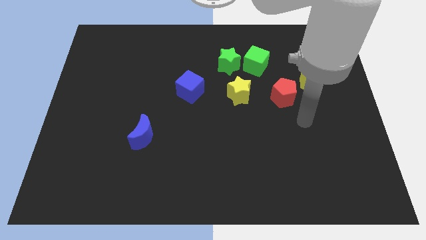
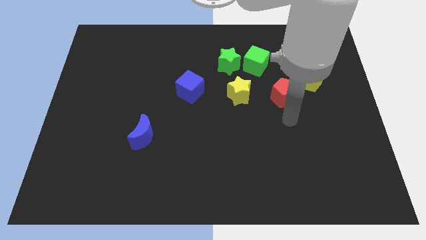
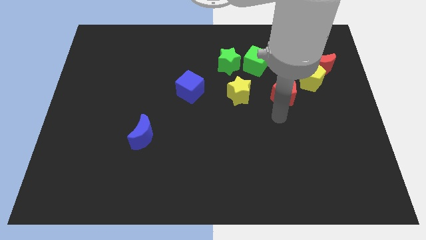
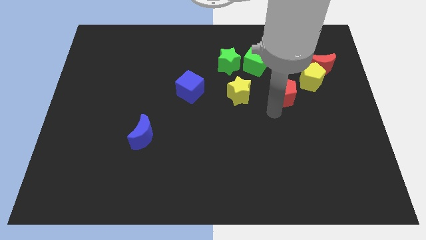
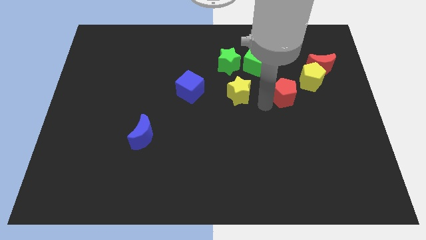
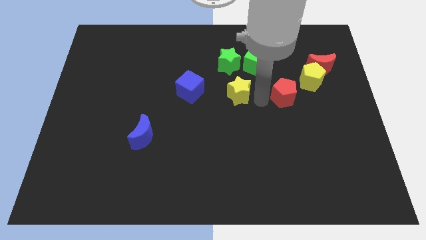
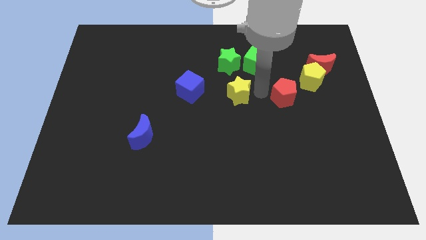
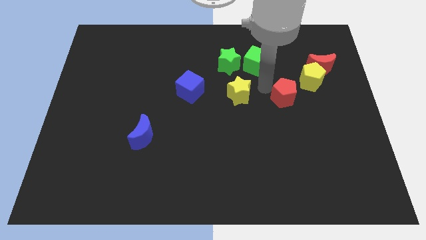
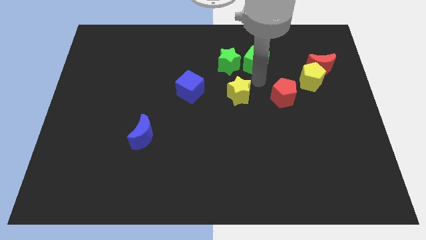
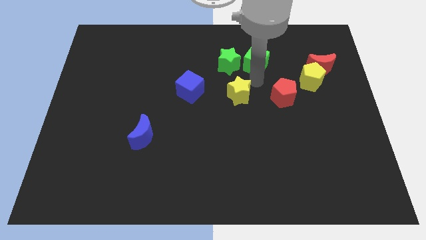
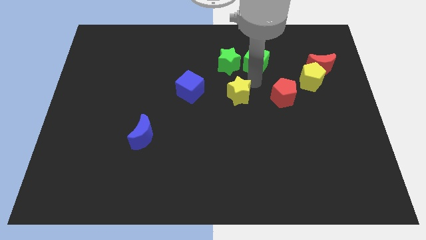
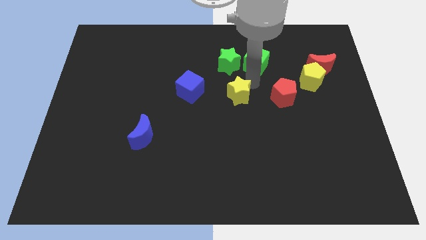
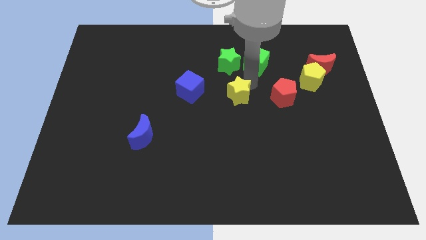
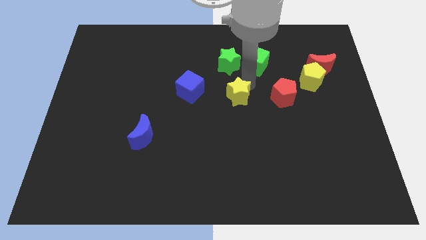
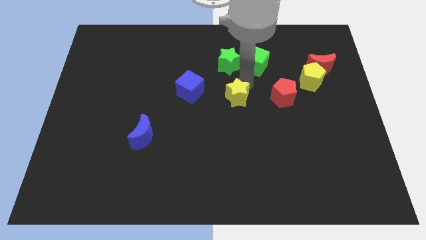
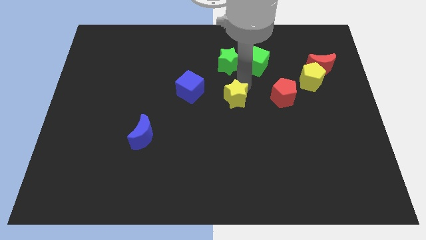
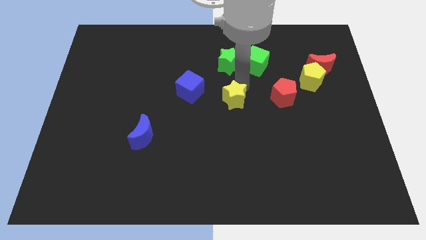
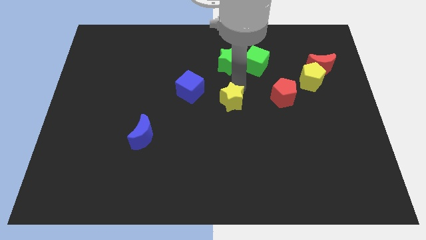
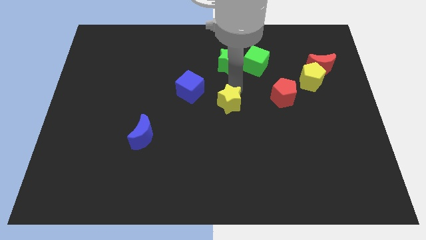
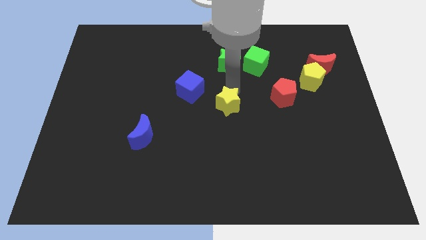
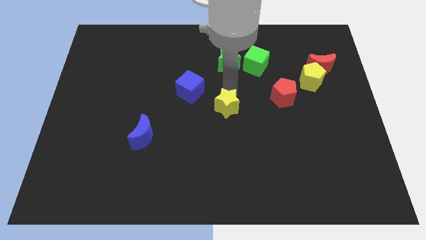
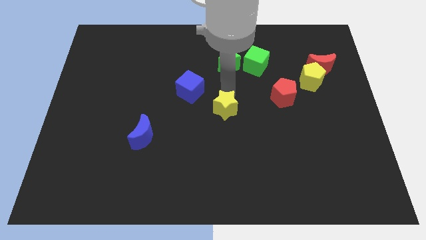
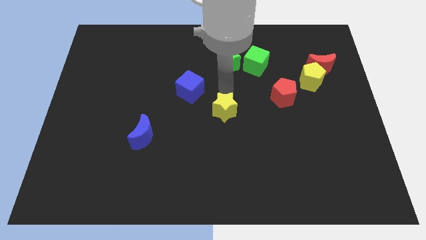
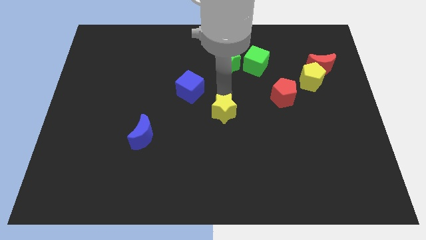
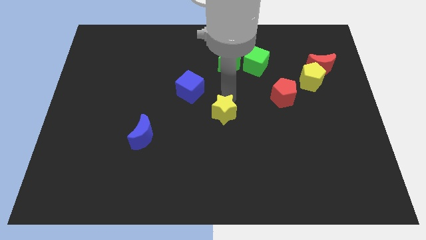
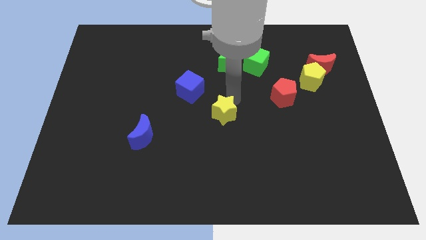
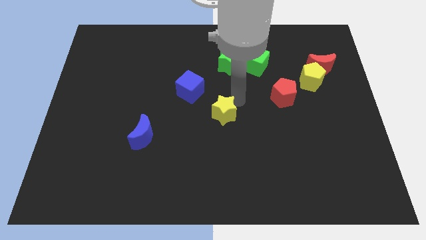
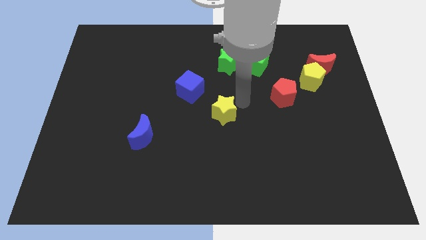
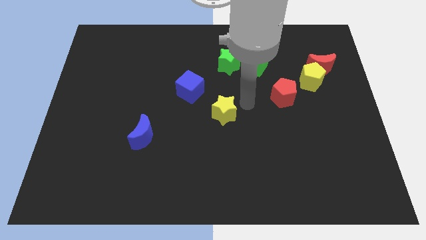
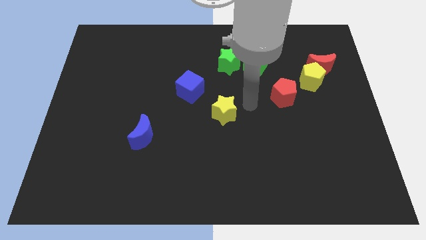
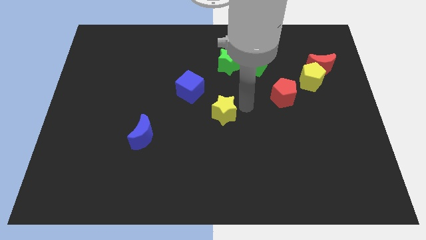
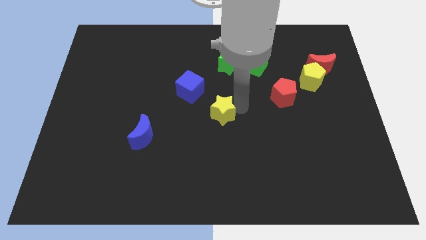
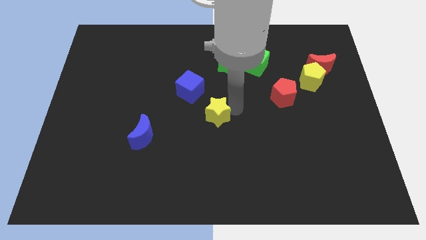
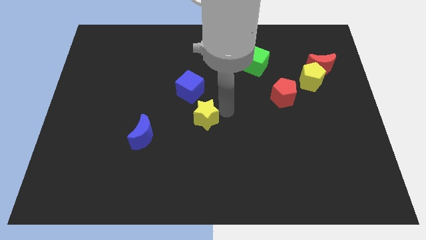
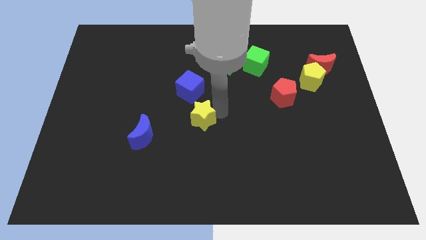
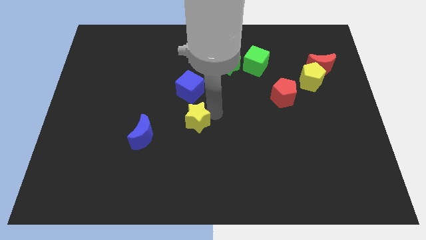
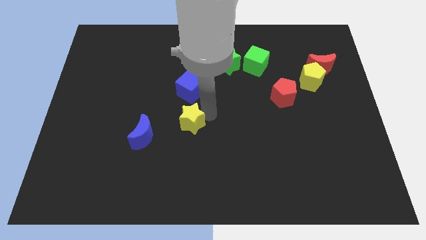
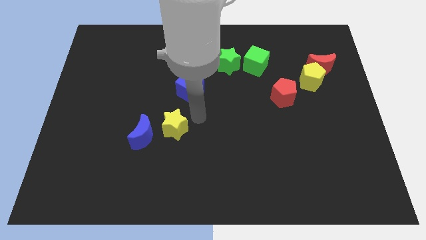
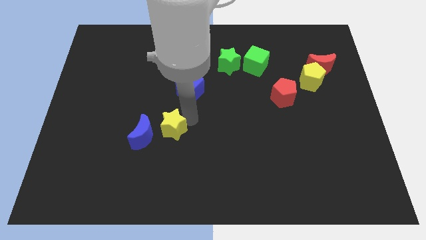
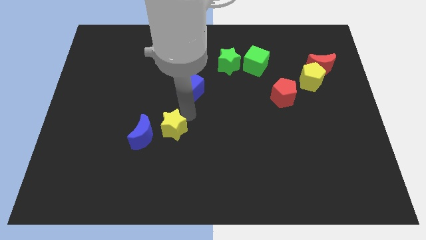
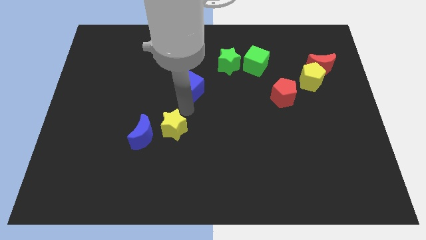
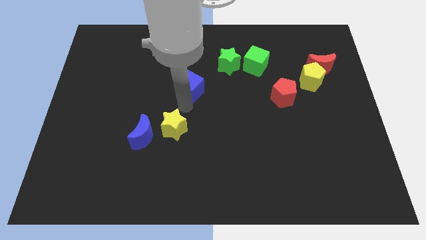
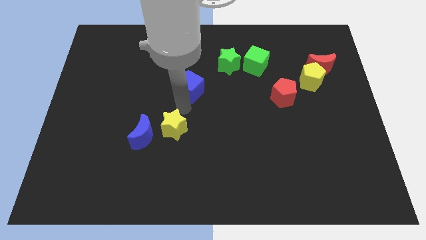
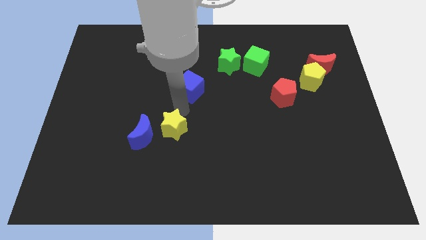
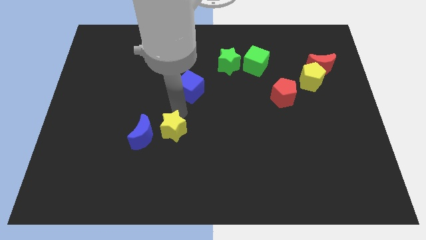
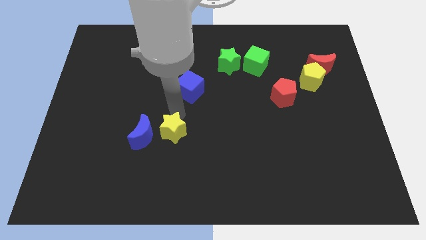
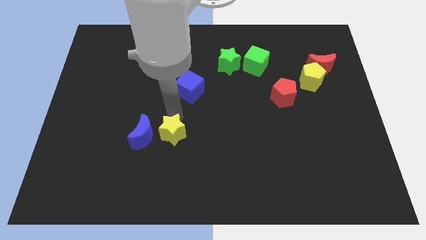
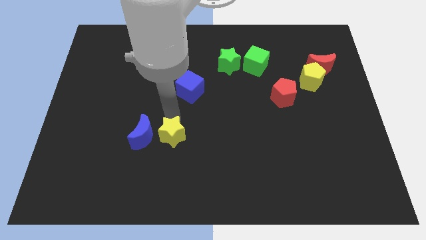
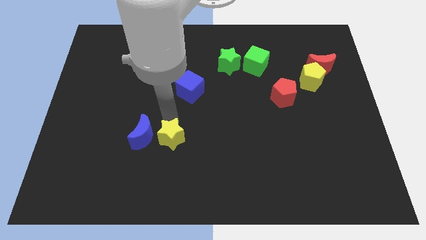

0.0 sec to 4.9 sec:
move the yellow star diagonally down and to the left

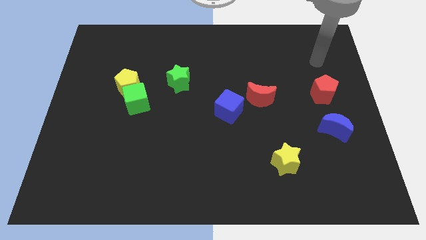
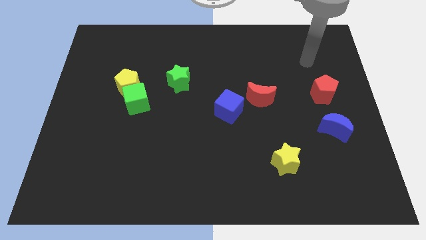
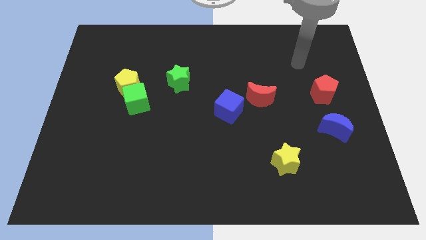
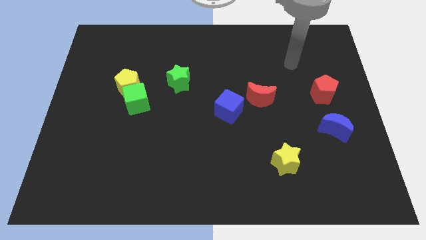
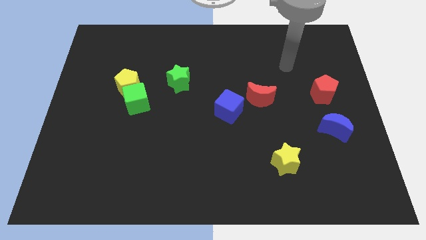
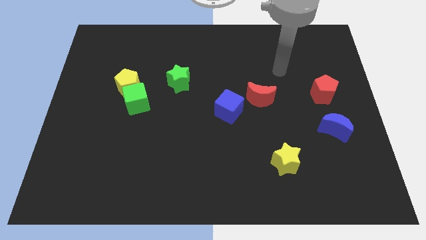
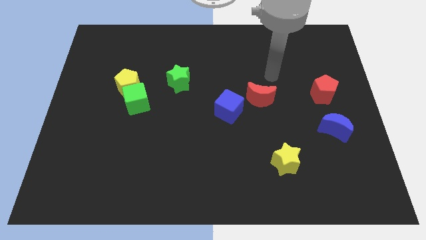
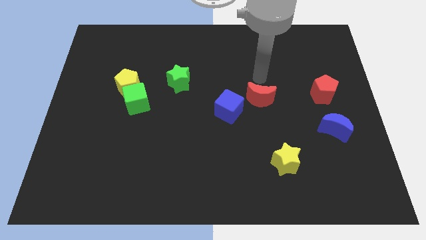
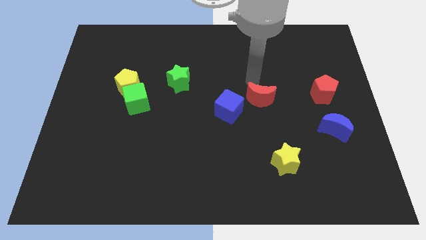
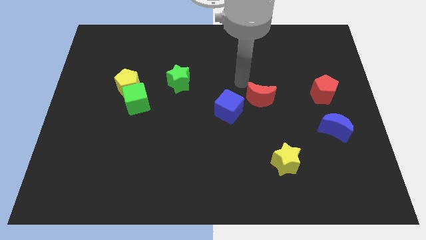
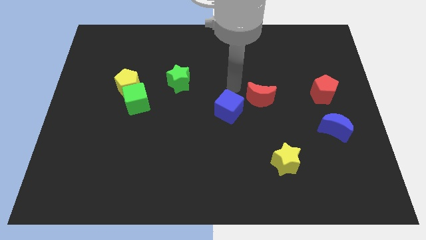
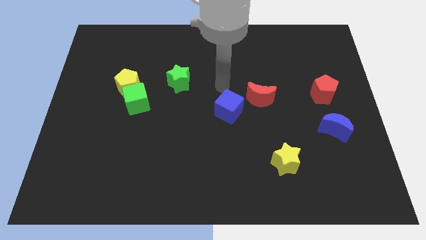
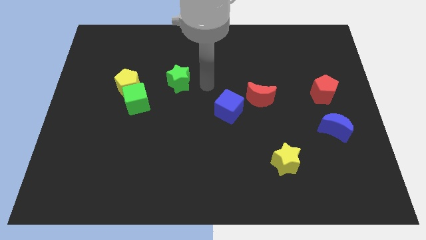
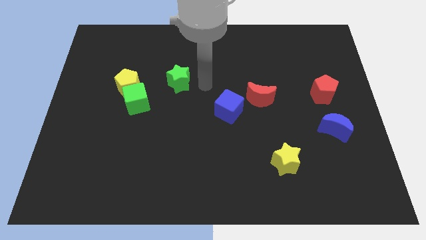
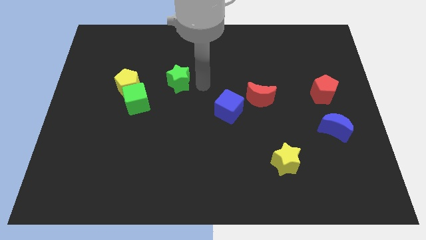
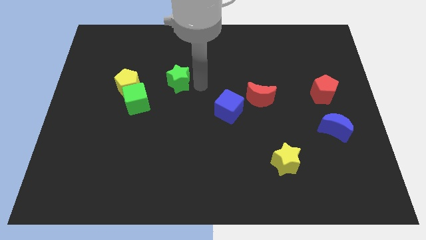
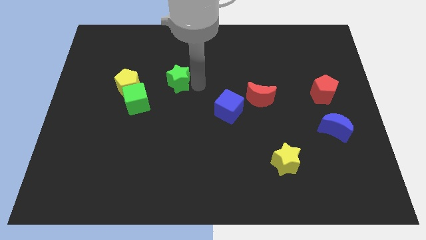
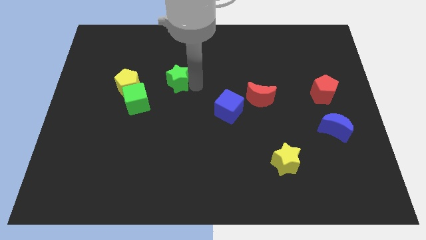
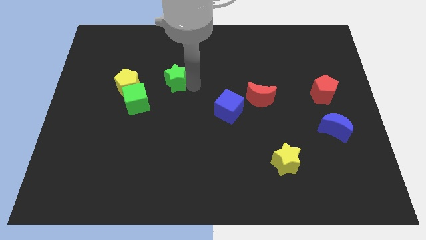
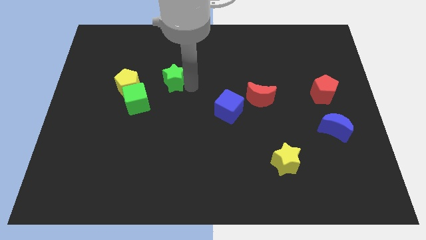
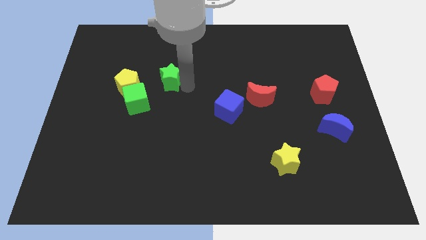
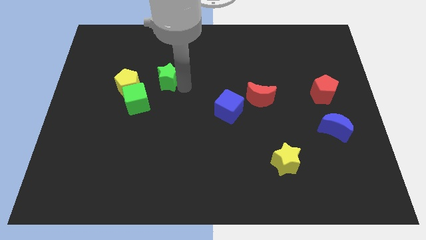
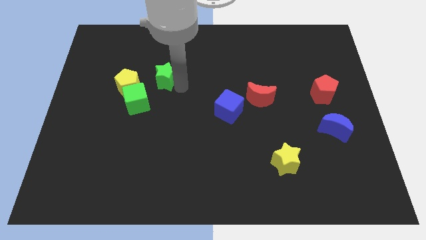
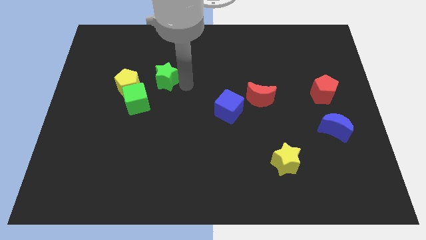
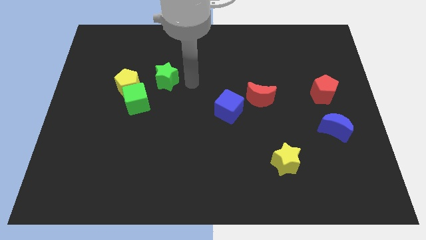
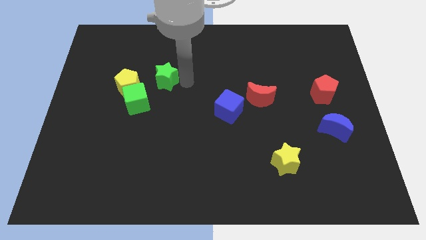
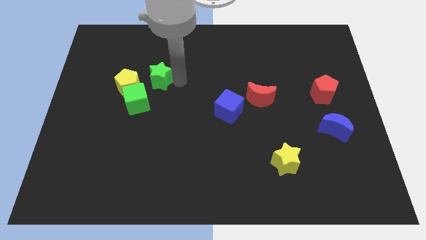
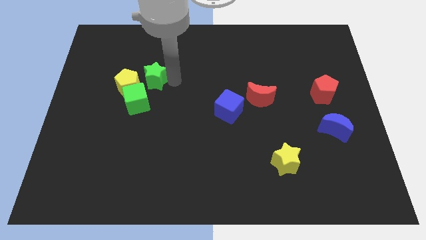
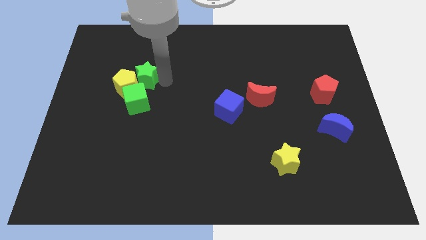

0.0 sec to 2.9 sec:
slightly push the green star to the left

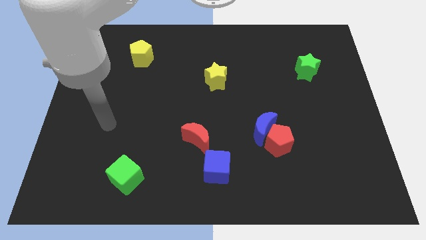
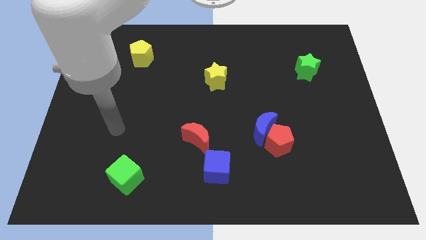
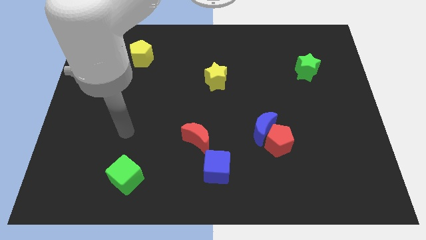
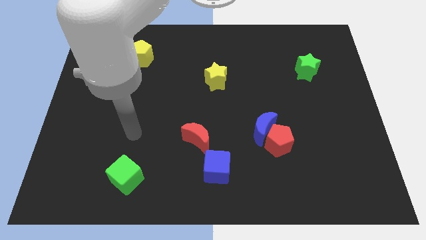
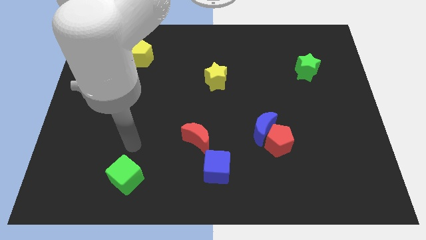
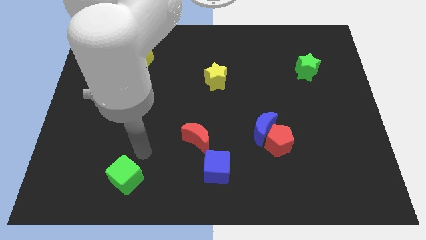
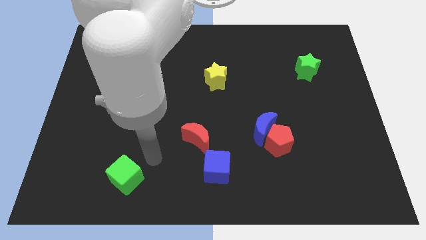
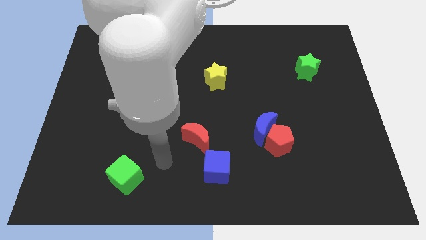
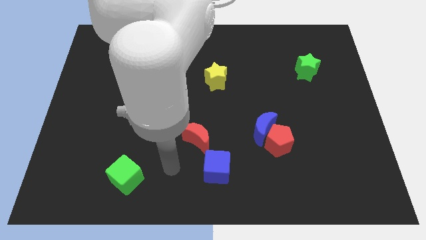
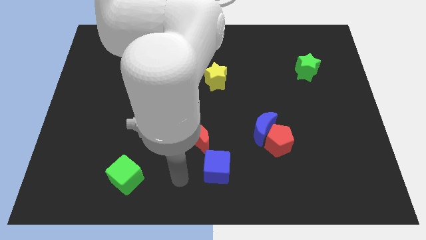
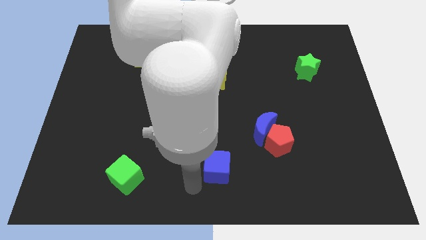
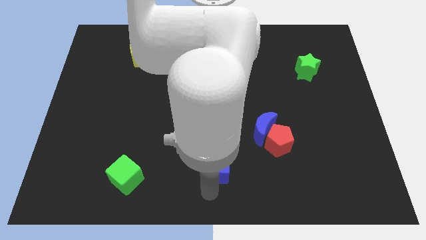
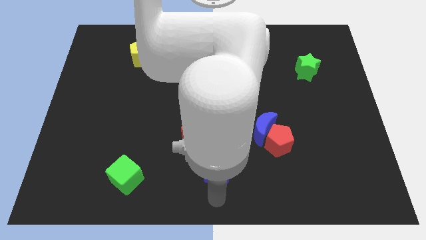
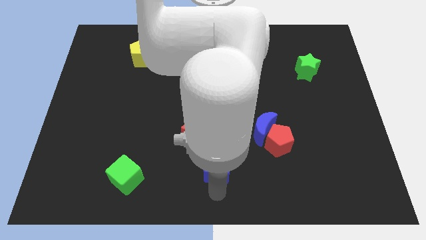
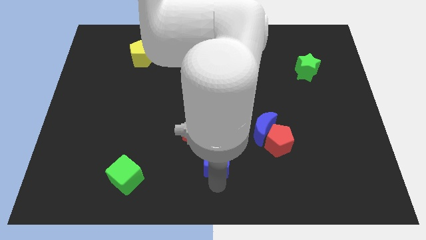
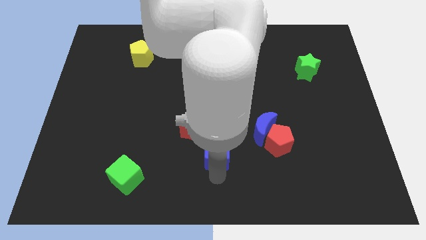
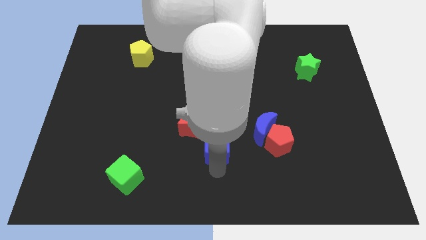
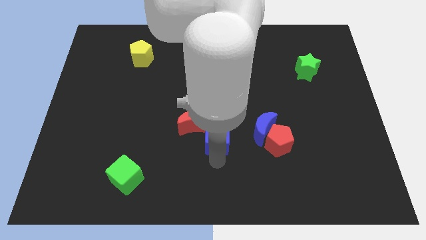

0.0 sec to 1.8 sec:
slightly slide the blue cube upwards
